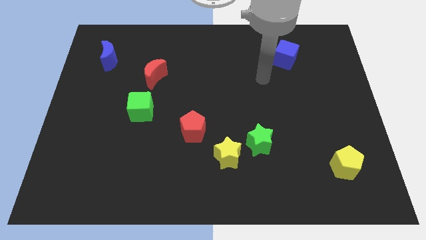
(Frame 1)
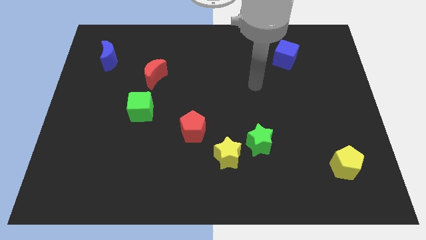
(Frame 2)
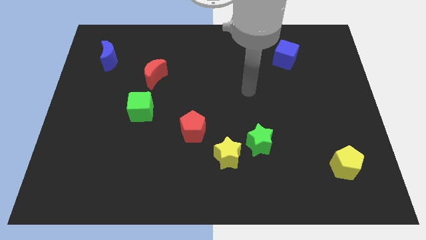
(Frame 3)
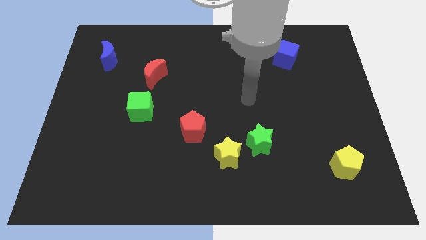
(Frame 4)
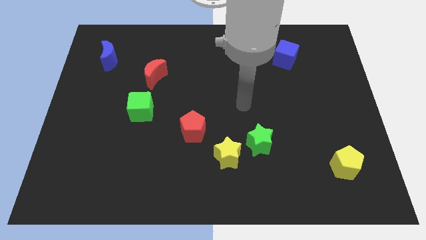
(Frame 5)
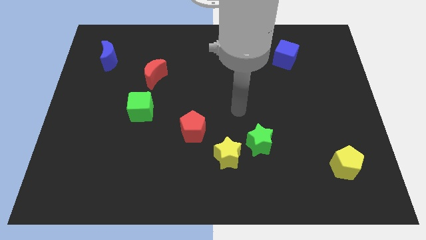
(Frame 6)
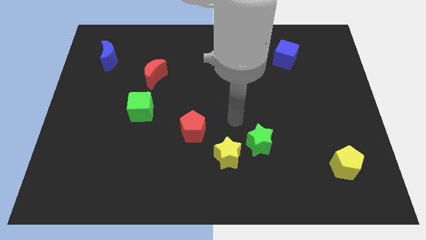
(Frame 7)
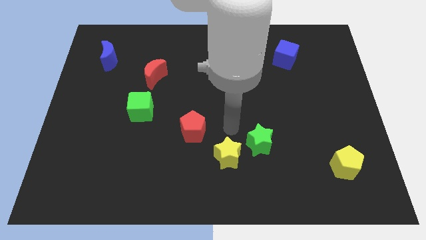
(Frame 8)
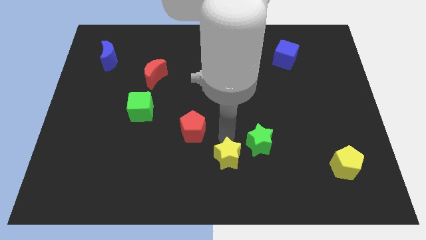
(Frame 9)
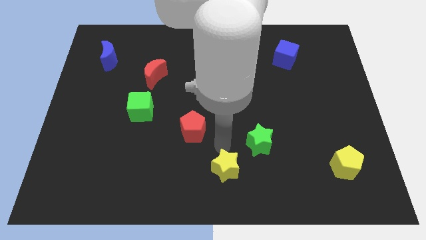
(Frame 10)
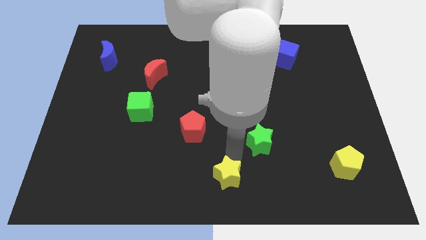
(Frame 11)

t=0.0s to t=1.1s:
separate the green star from the yellow star

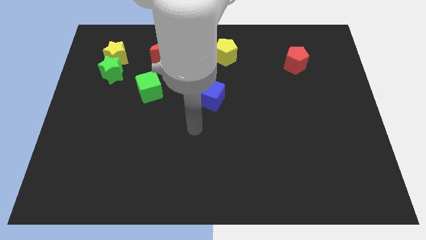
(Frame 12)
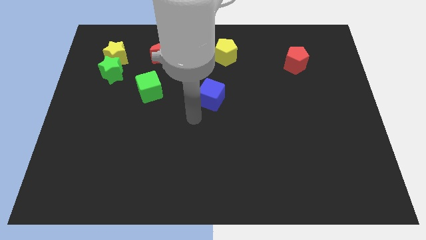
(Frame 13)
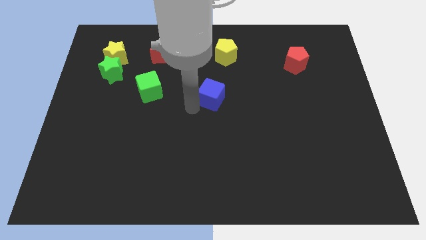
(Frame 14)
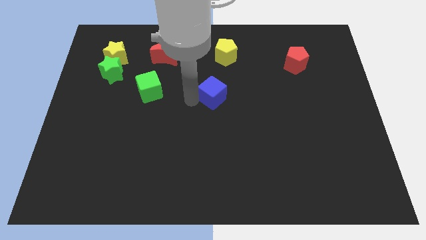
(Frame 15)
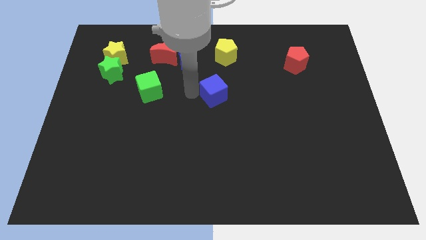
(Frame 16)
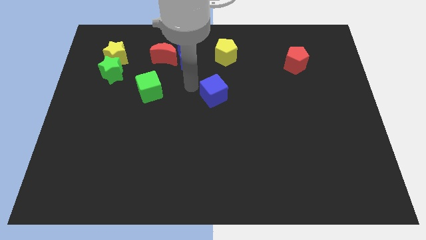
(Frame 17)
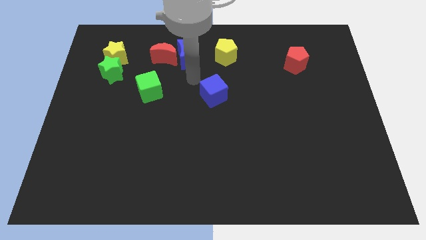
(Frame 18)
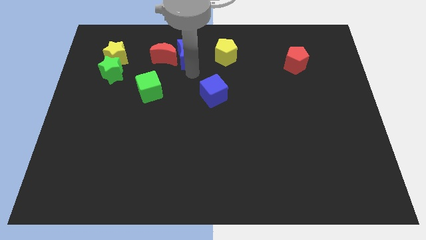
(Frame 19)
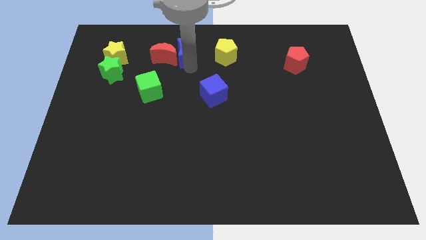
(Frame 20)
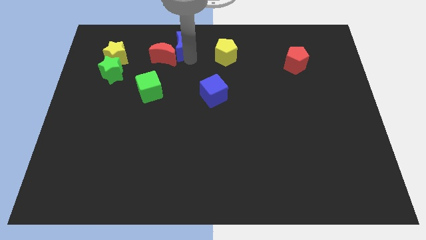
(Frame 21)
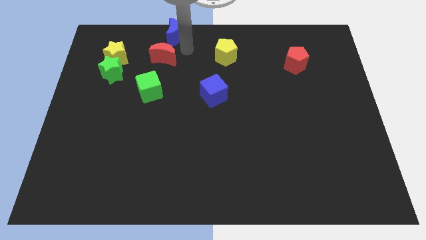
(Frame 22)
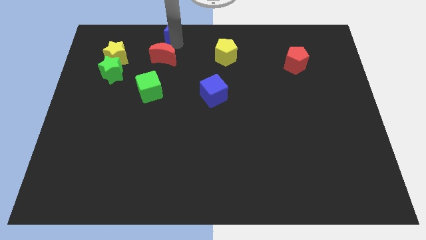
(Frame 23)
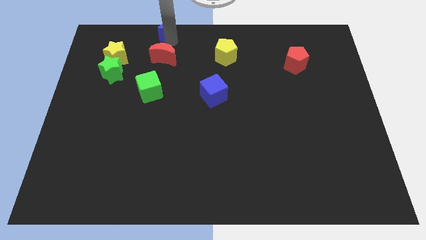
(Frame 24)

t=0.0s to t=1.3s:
pull the red moon apart from the blue moon

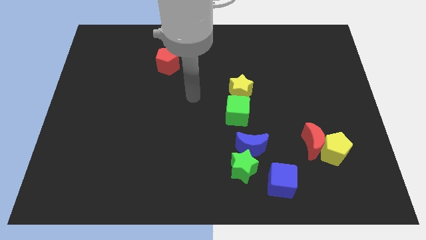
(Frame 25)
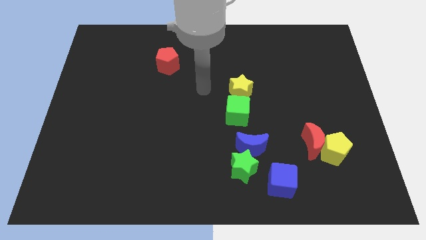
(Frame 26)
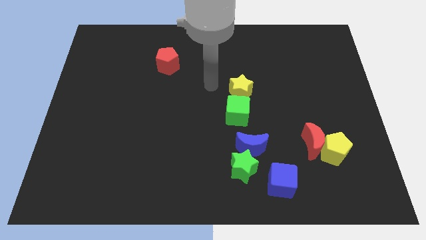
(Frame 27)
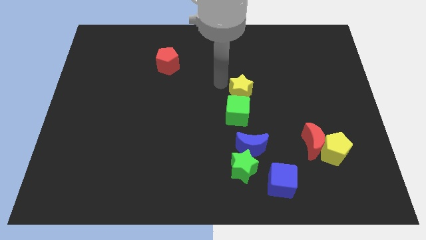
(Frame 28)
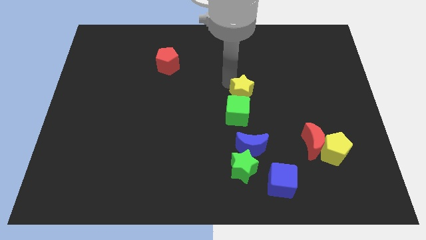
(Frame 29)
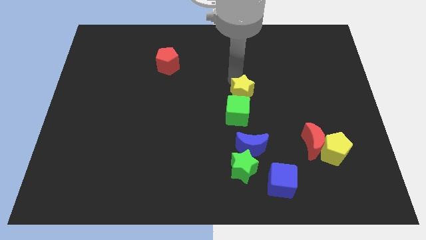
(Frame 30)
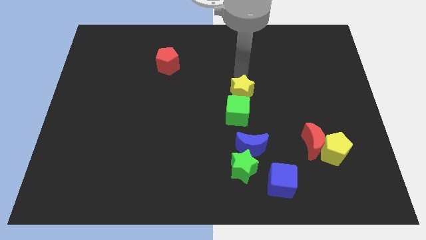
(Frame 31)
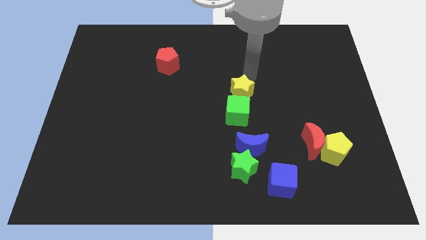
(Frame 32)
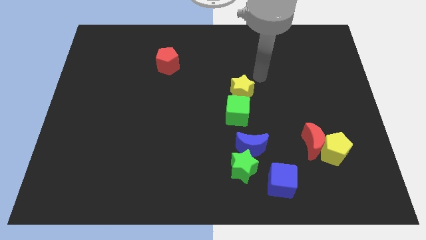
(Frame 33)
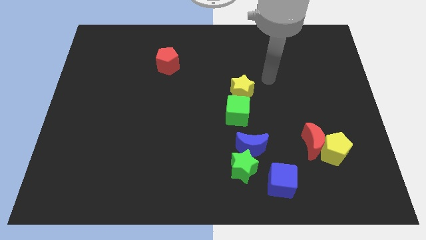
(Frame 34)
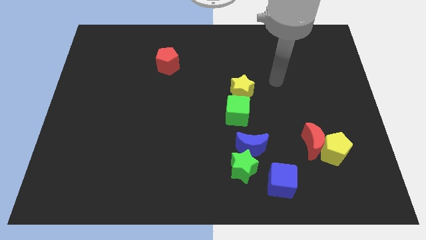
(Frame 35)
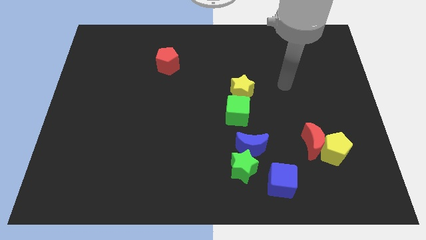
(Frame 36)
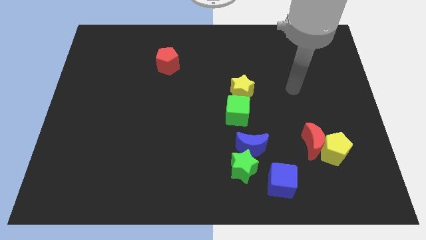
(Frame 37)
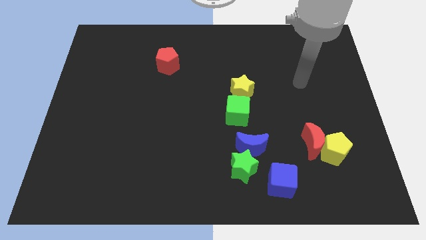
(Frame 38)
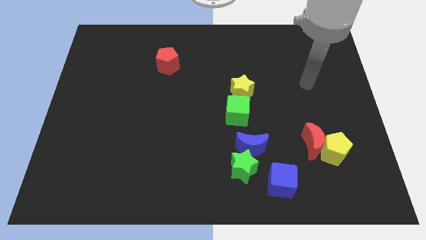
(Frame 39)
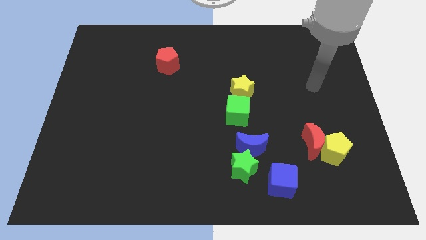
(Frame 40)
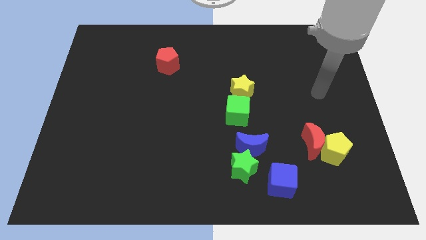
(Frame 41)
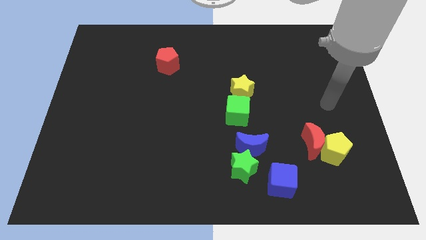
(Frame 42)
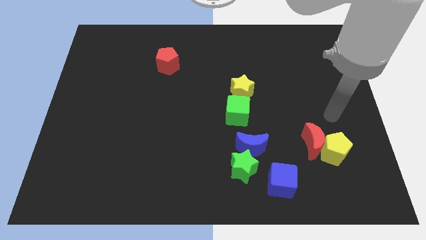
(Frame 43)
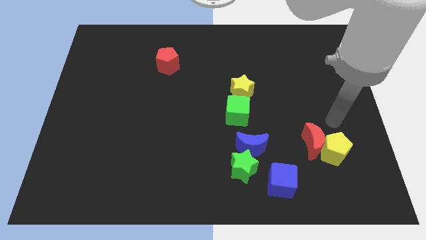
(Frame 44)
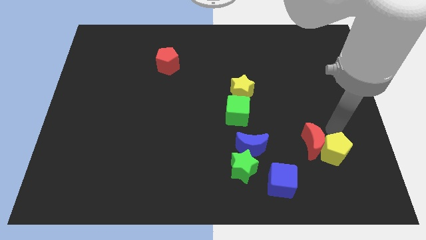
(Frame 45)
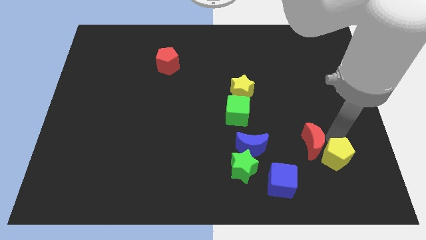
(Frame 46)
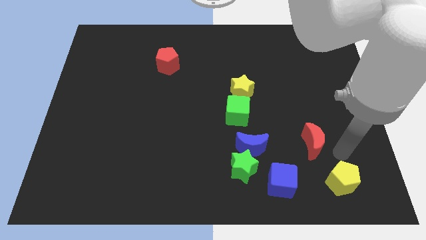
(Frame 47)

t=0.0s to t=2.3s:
move the red moon away from the yellow pentagon

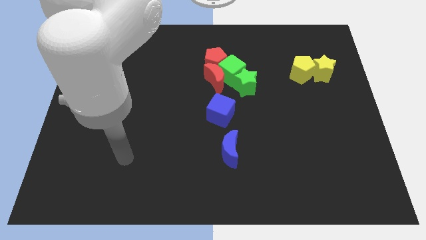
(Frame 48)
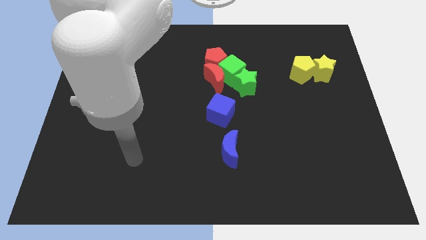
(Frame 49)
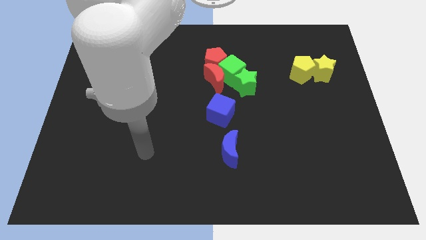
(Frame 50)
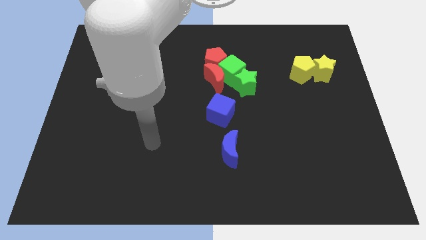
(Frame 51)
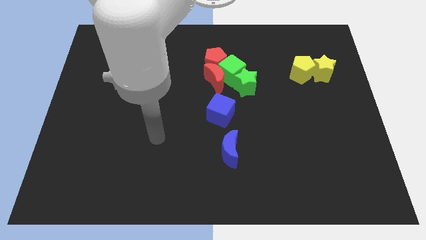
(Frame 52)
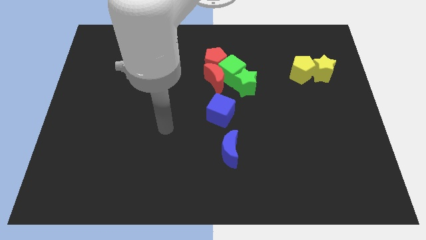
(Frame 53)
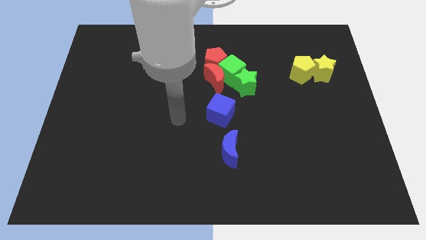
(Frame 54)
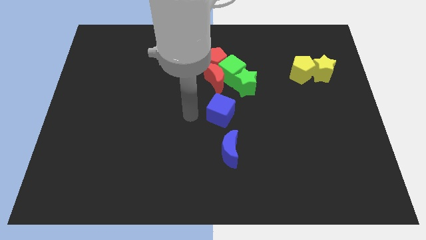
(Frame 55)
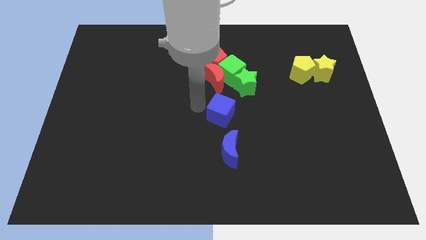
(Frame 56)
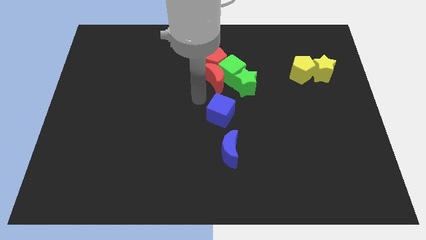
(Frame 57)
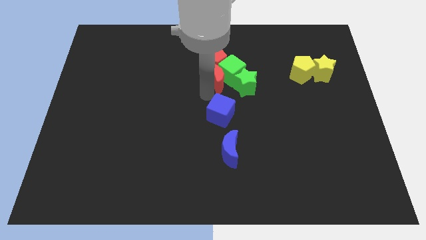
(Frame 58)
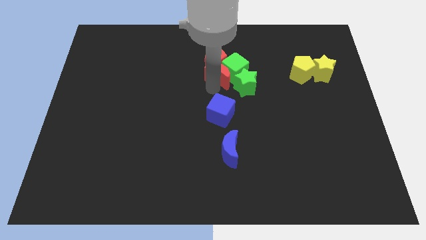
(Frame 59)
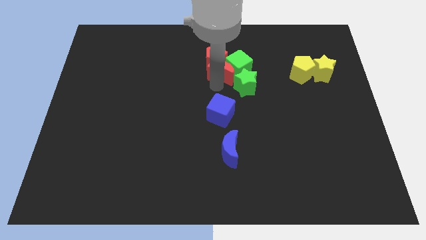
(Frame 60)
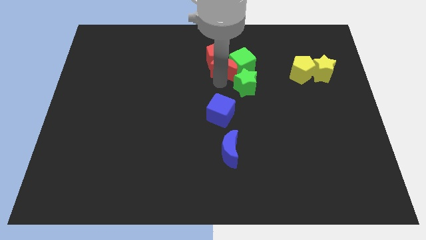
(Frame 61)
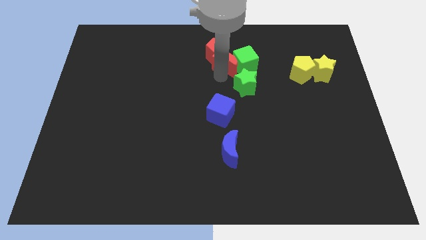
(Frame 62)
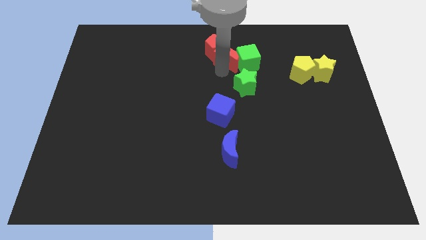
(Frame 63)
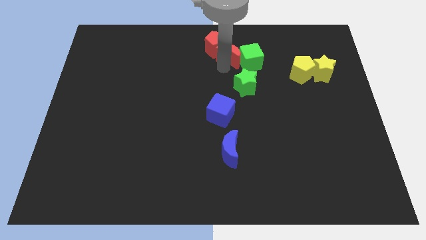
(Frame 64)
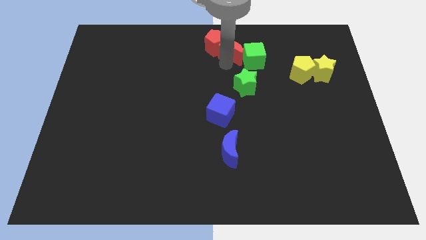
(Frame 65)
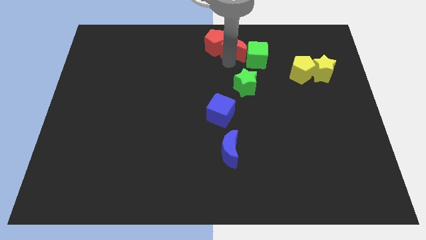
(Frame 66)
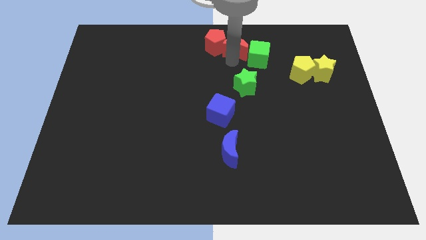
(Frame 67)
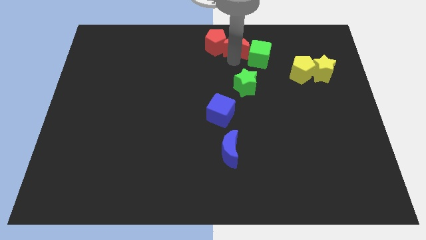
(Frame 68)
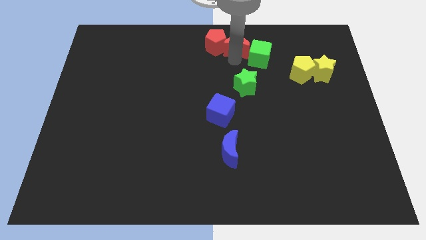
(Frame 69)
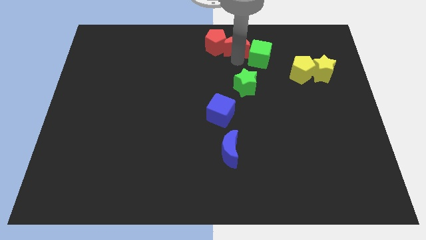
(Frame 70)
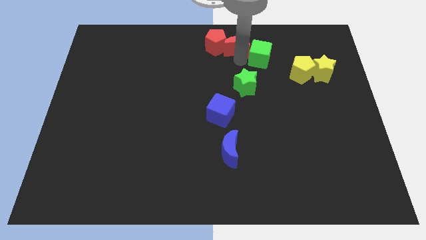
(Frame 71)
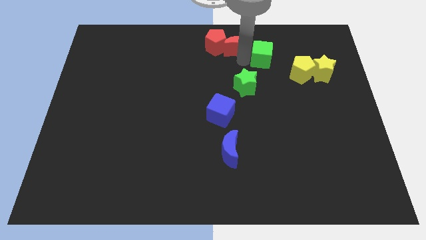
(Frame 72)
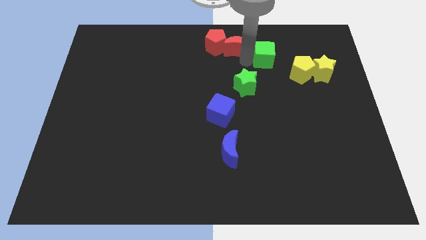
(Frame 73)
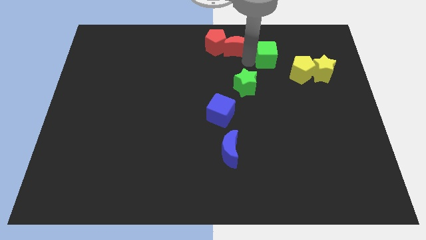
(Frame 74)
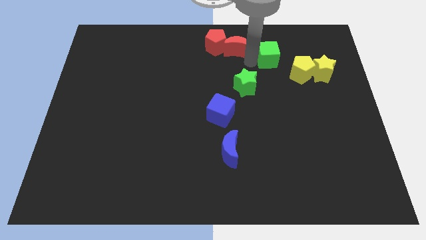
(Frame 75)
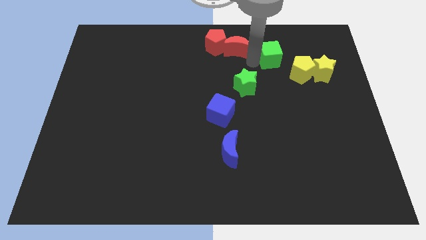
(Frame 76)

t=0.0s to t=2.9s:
pull the green cube apart from the red moon, green star, and red pentagon

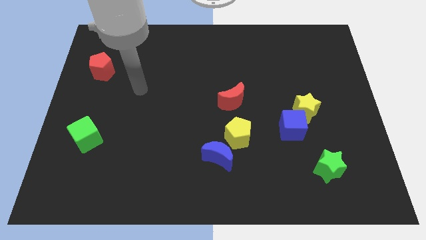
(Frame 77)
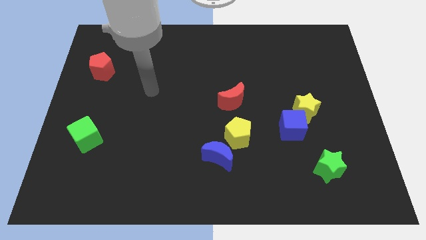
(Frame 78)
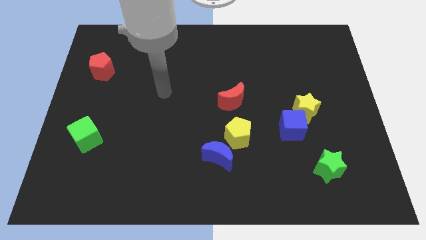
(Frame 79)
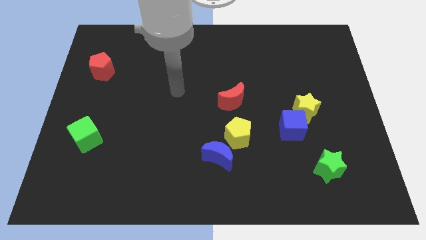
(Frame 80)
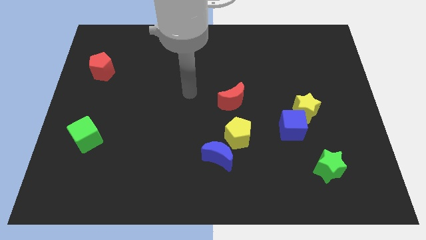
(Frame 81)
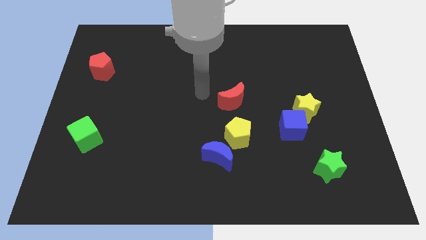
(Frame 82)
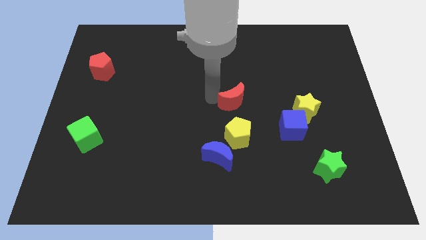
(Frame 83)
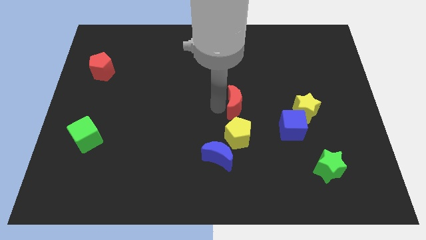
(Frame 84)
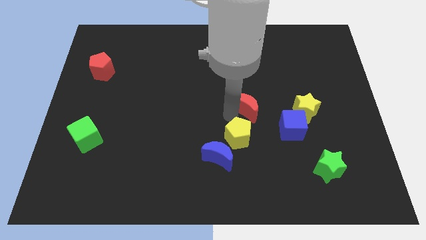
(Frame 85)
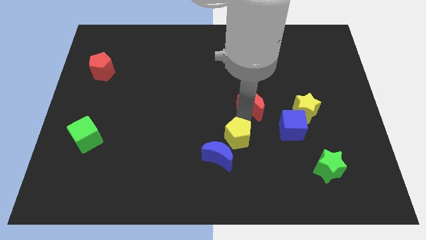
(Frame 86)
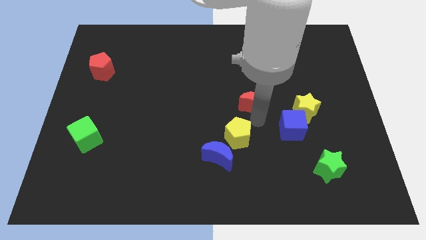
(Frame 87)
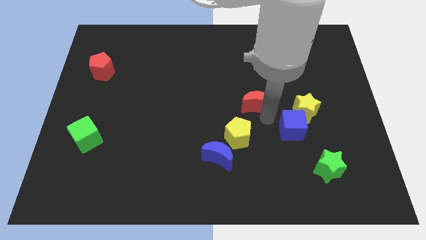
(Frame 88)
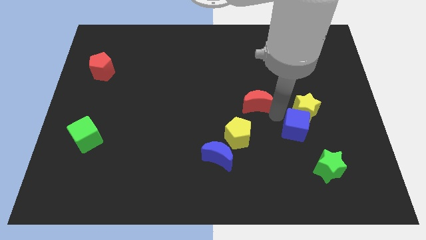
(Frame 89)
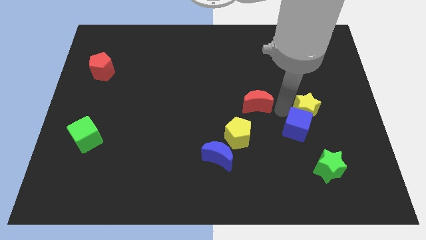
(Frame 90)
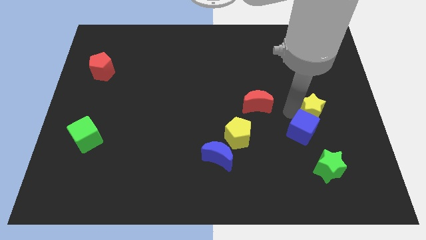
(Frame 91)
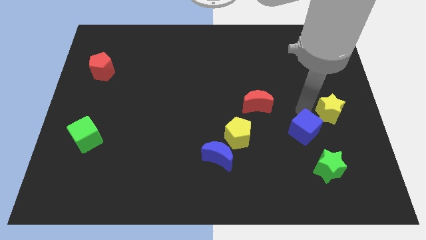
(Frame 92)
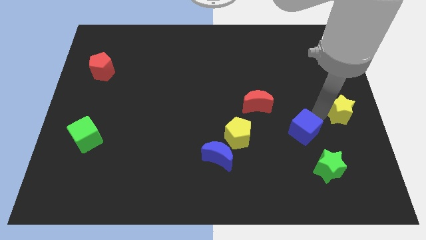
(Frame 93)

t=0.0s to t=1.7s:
pull the blue cube apart from the yellow star

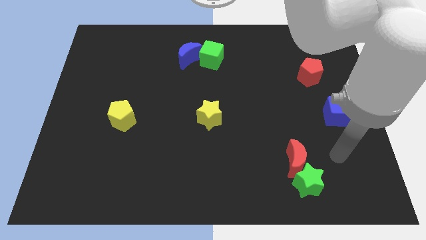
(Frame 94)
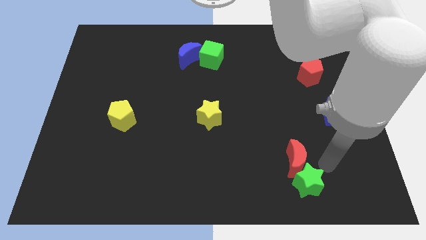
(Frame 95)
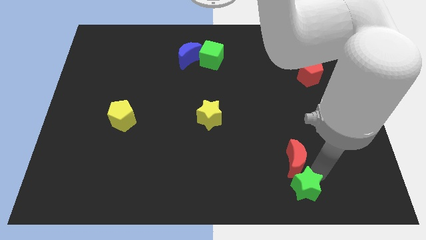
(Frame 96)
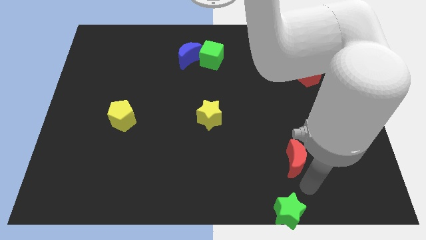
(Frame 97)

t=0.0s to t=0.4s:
separate the red moon from the green star
